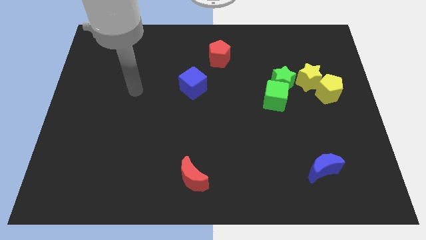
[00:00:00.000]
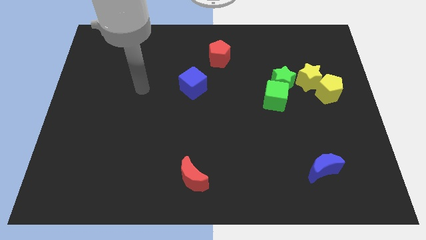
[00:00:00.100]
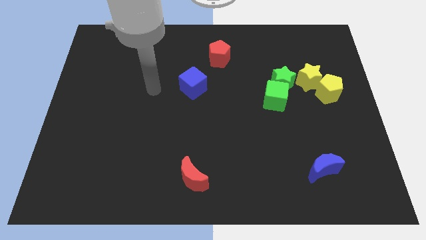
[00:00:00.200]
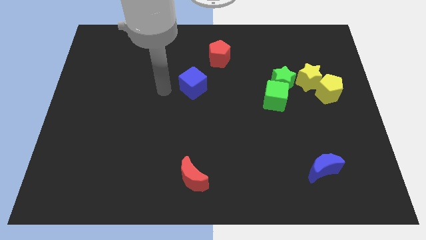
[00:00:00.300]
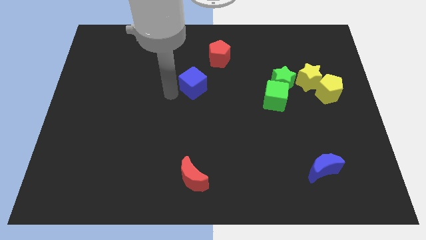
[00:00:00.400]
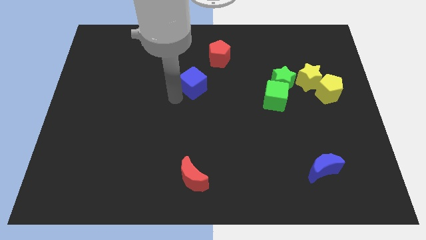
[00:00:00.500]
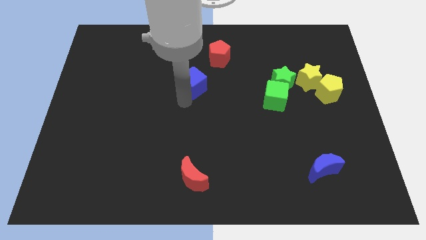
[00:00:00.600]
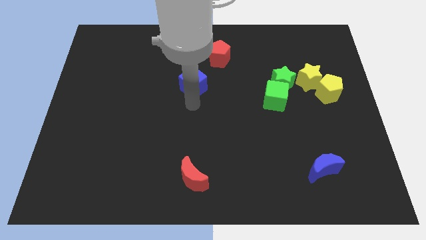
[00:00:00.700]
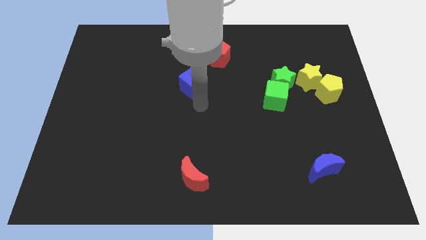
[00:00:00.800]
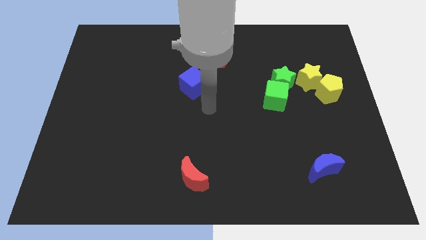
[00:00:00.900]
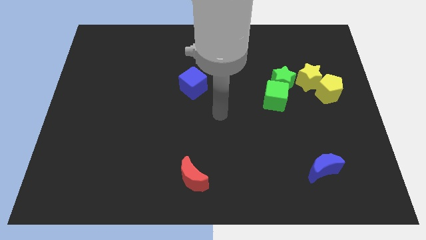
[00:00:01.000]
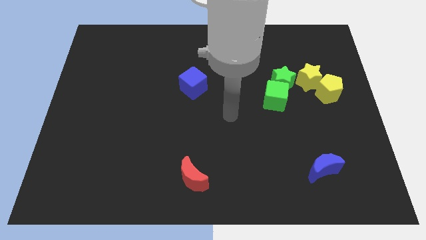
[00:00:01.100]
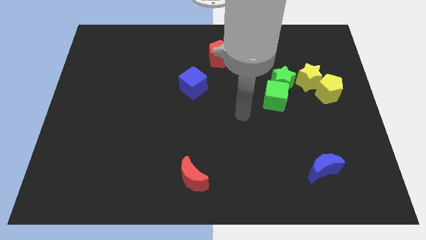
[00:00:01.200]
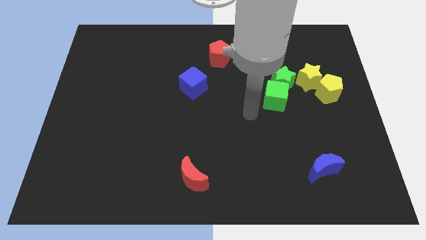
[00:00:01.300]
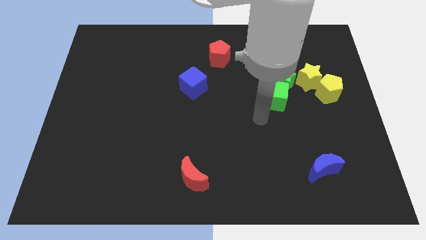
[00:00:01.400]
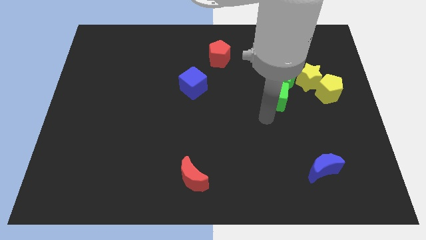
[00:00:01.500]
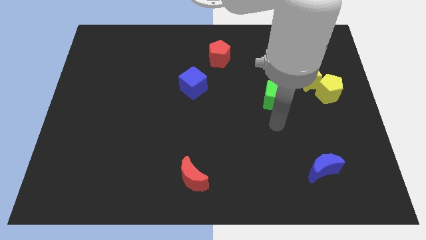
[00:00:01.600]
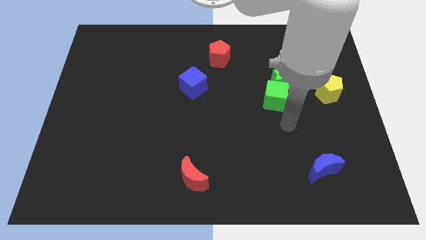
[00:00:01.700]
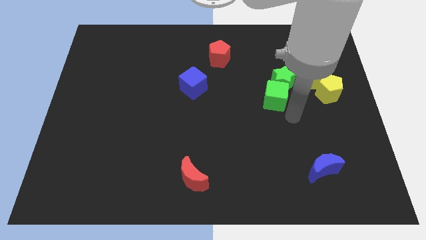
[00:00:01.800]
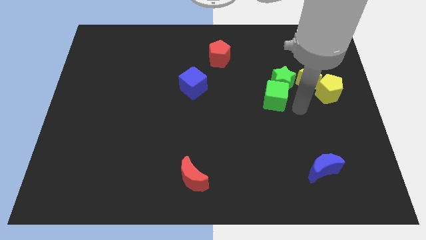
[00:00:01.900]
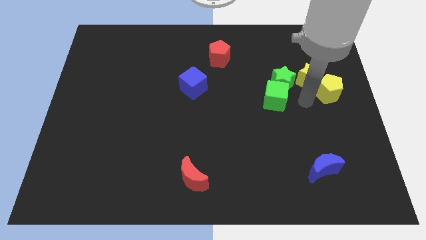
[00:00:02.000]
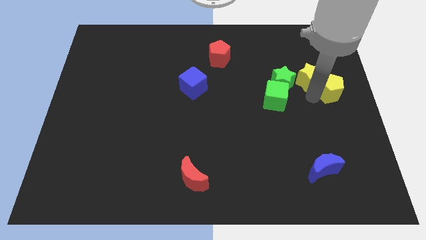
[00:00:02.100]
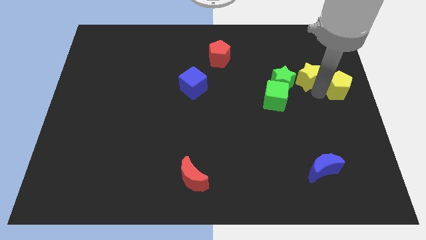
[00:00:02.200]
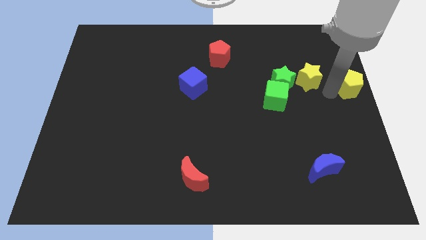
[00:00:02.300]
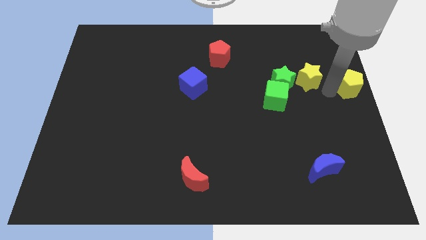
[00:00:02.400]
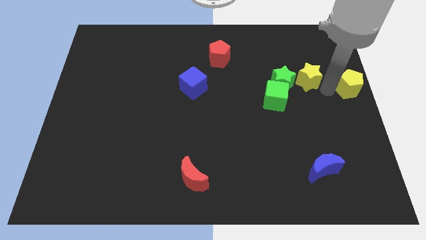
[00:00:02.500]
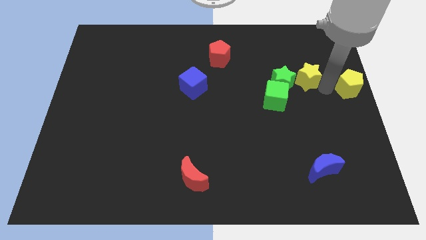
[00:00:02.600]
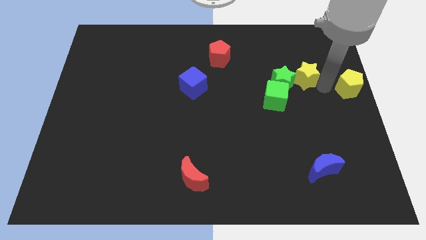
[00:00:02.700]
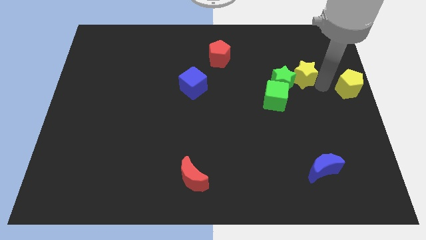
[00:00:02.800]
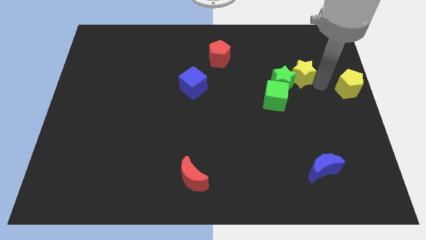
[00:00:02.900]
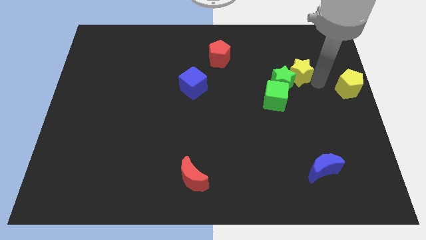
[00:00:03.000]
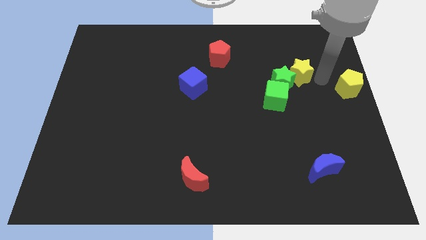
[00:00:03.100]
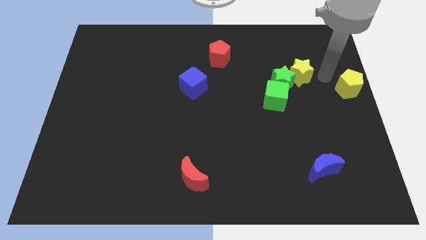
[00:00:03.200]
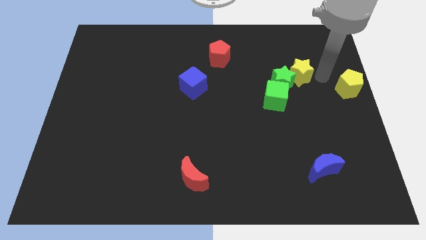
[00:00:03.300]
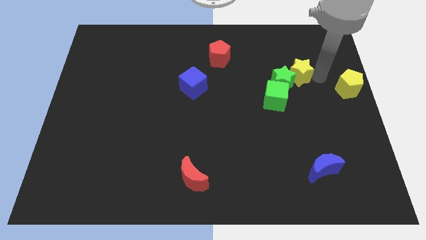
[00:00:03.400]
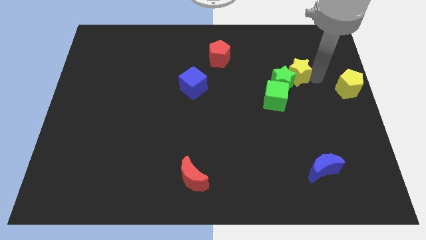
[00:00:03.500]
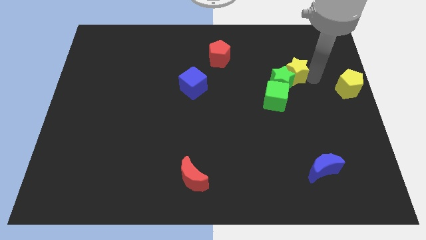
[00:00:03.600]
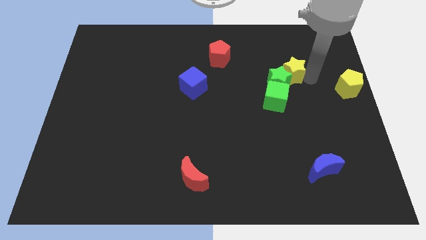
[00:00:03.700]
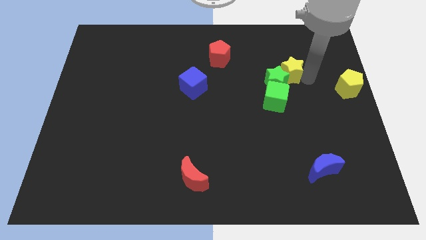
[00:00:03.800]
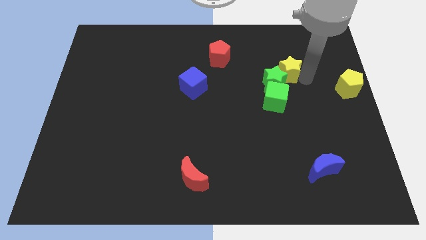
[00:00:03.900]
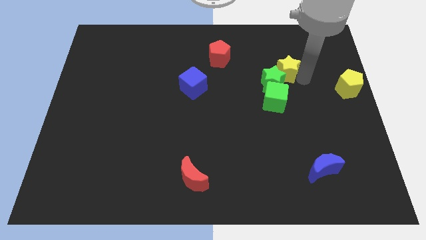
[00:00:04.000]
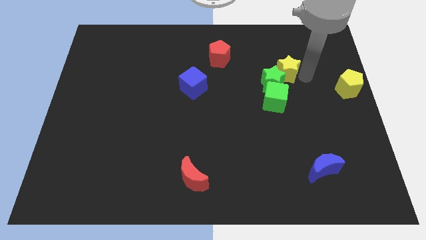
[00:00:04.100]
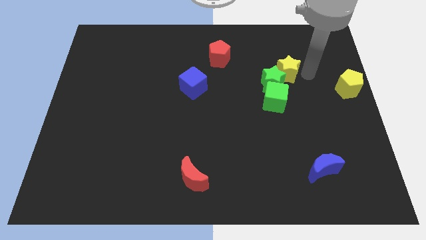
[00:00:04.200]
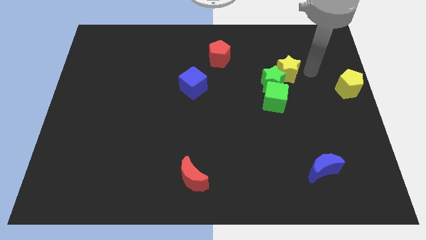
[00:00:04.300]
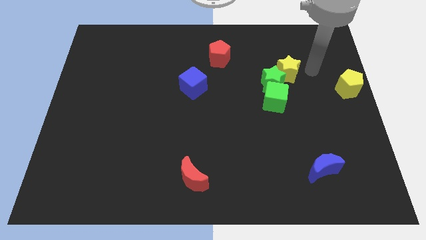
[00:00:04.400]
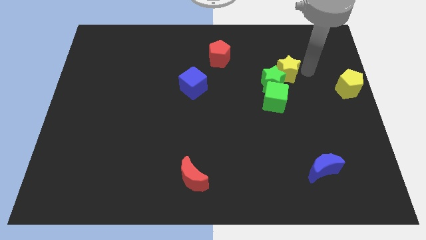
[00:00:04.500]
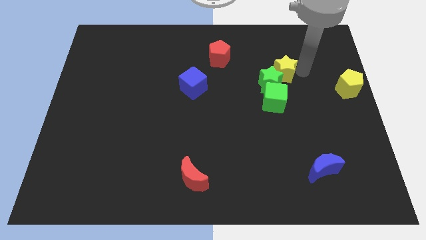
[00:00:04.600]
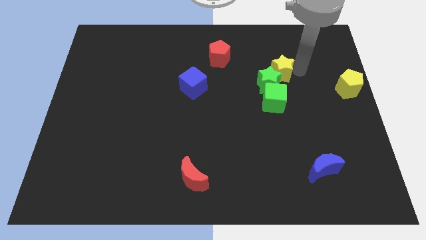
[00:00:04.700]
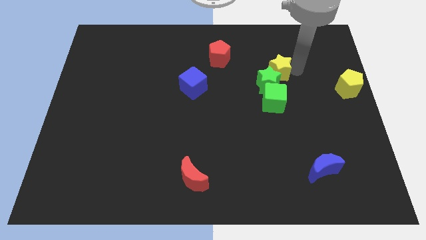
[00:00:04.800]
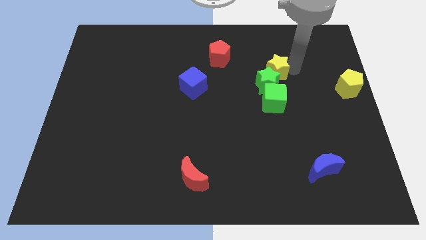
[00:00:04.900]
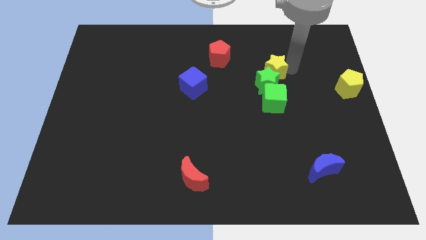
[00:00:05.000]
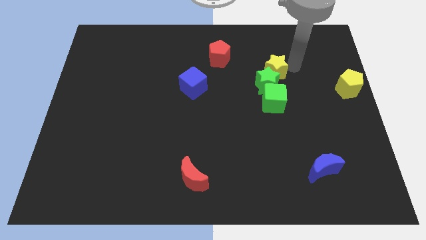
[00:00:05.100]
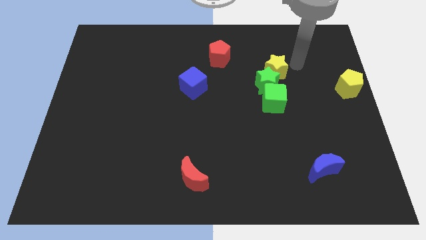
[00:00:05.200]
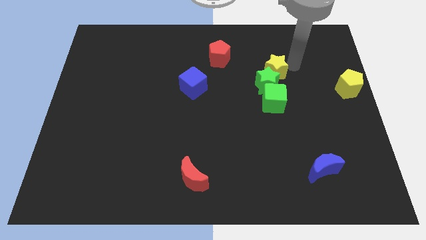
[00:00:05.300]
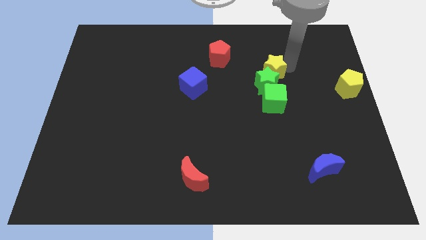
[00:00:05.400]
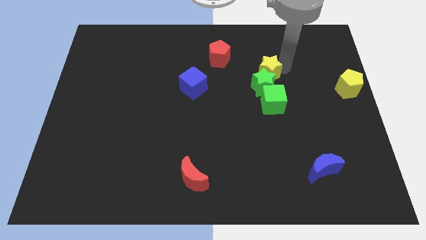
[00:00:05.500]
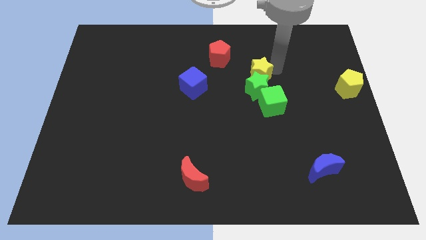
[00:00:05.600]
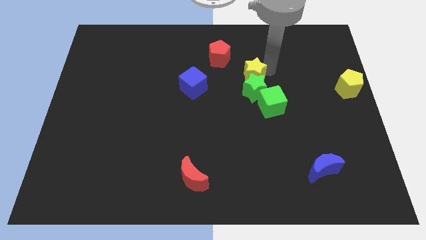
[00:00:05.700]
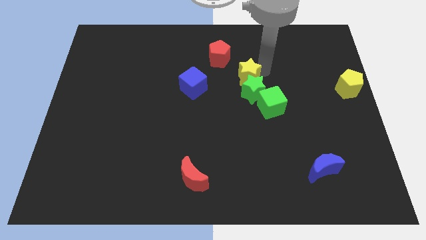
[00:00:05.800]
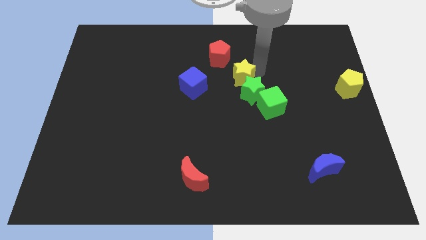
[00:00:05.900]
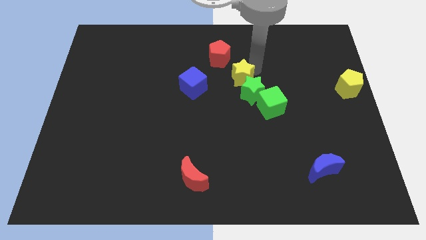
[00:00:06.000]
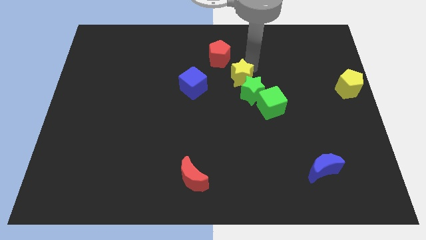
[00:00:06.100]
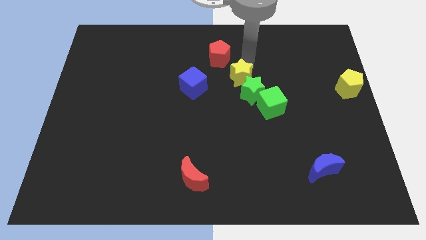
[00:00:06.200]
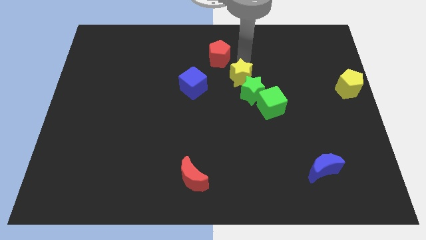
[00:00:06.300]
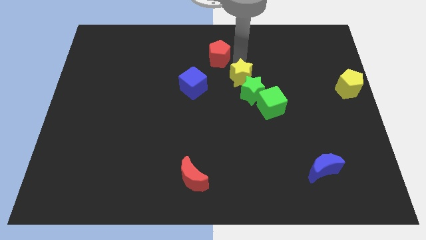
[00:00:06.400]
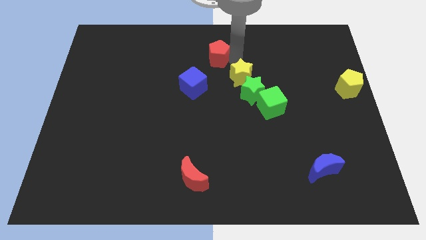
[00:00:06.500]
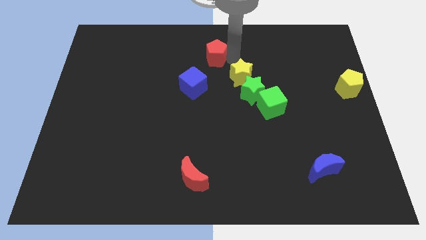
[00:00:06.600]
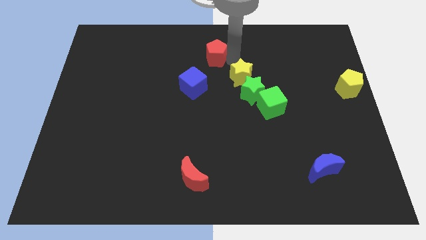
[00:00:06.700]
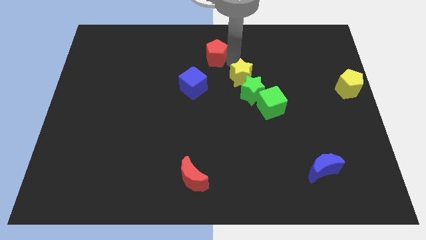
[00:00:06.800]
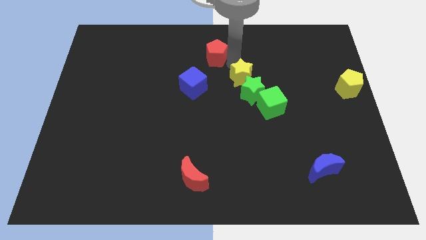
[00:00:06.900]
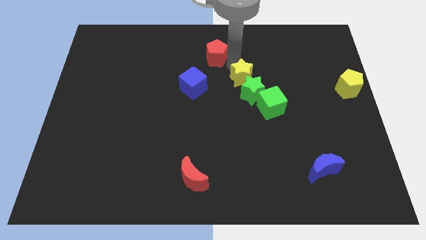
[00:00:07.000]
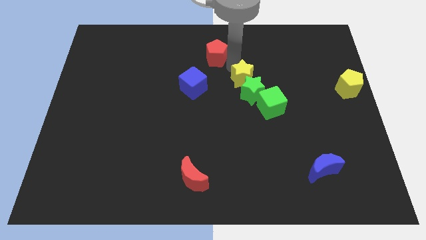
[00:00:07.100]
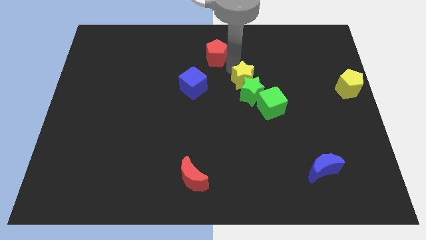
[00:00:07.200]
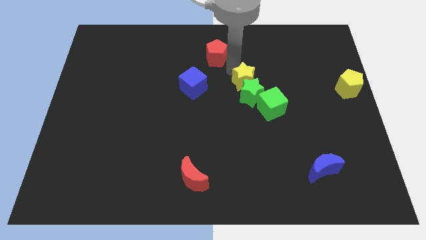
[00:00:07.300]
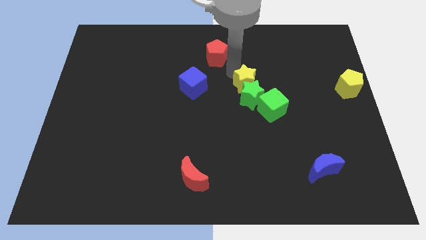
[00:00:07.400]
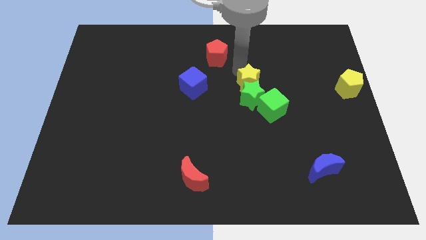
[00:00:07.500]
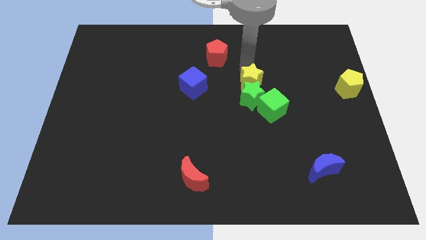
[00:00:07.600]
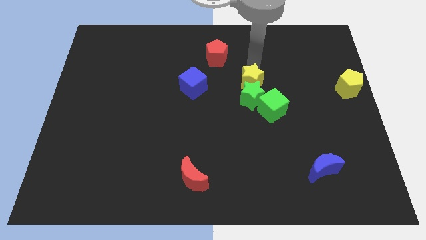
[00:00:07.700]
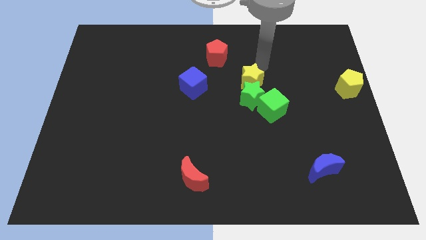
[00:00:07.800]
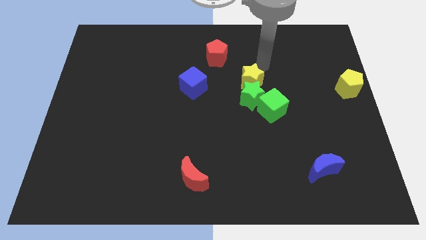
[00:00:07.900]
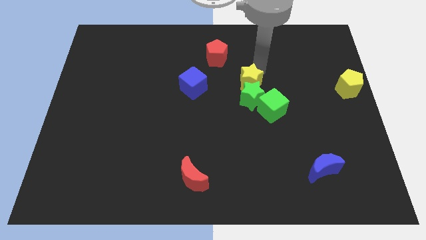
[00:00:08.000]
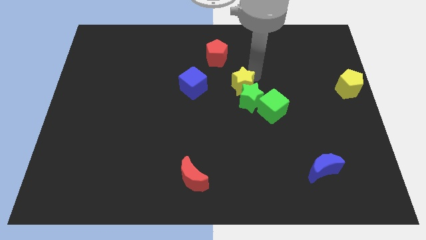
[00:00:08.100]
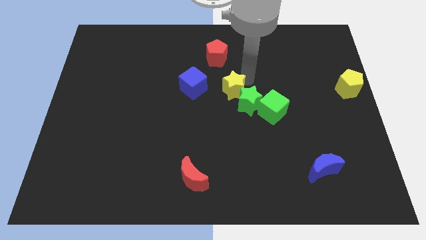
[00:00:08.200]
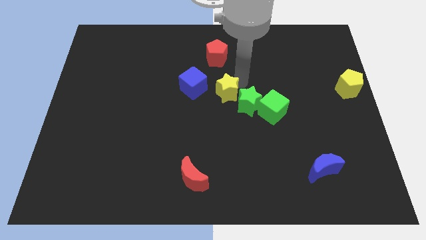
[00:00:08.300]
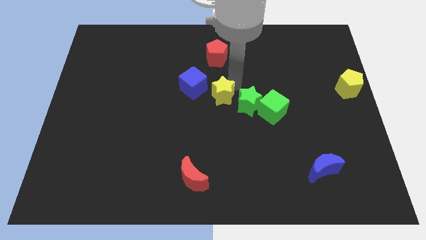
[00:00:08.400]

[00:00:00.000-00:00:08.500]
put the yellow star to the left side of the green cube
